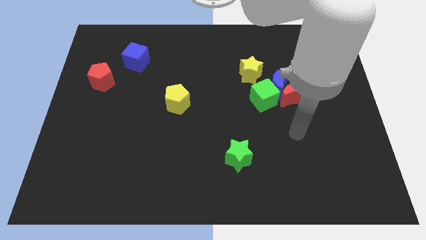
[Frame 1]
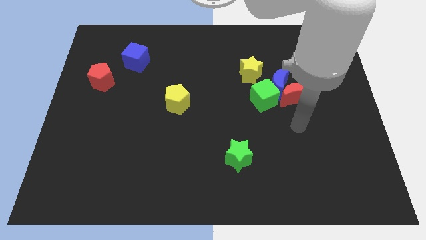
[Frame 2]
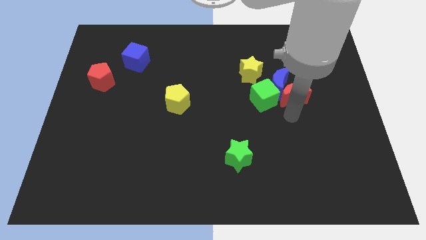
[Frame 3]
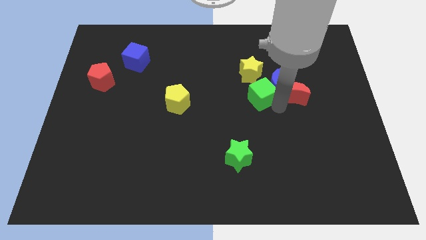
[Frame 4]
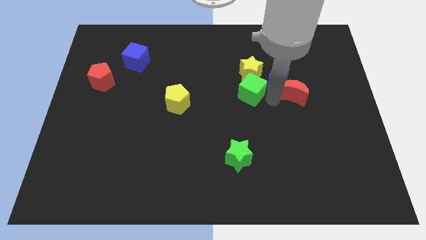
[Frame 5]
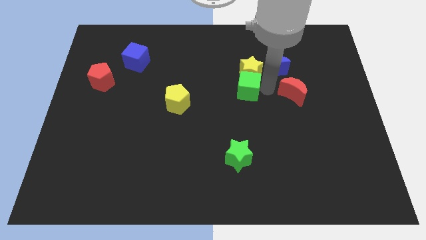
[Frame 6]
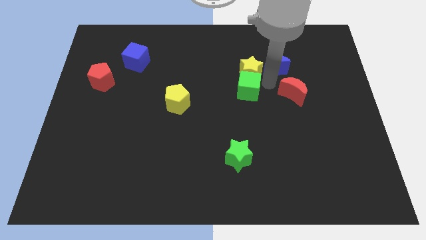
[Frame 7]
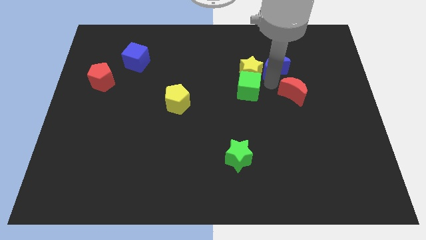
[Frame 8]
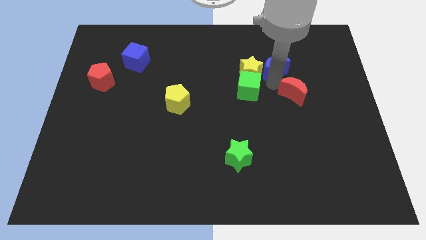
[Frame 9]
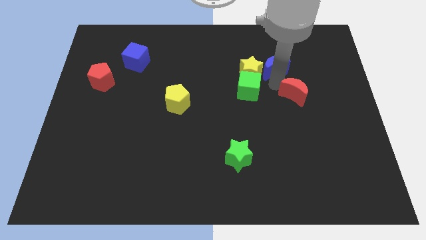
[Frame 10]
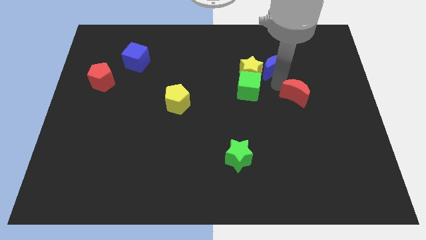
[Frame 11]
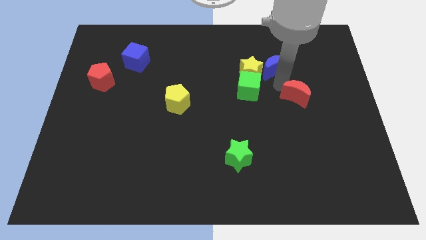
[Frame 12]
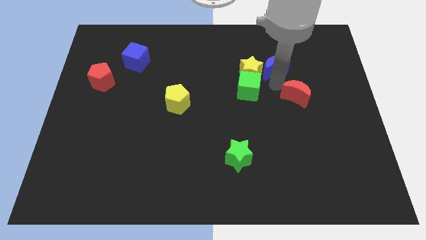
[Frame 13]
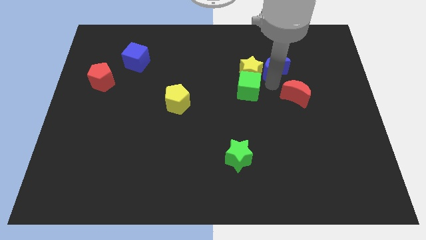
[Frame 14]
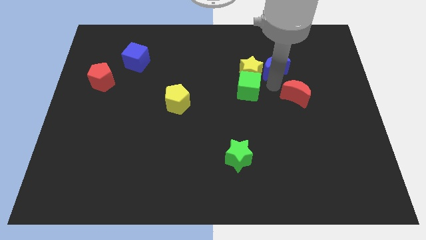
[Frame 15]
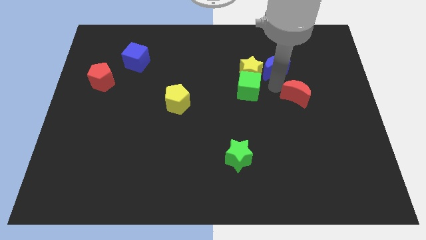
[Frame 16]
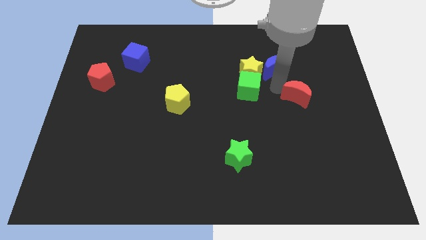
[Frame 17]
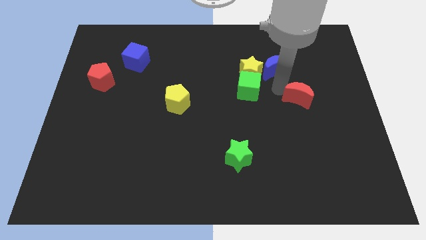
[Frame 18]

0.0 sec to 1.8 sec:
move the red moon away from the blue moon and green cube

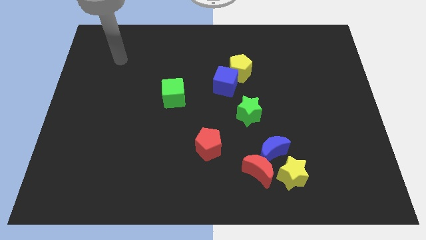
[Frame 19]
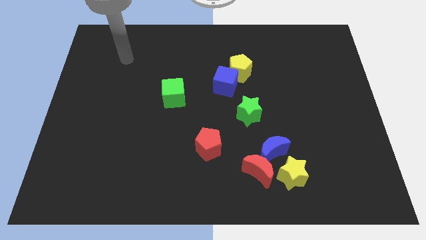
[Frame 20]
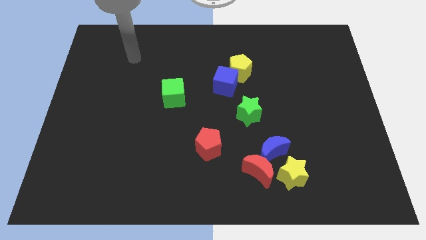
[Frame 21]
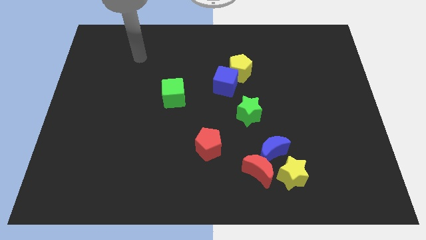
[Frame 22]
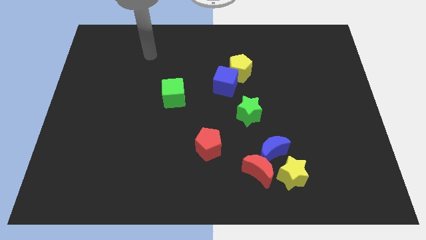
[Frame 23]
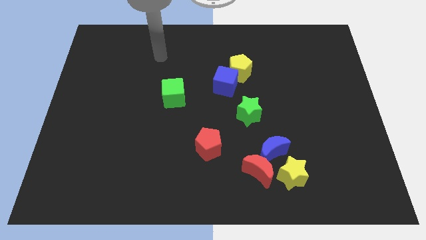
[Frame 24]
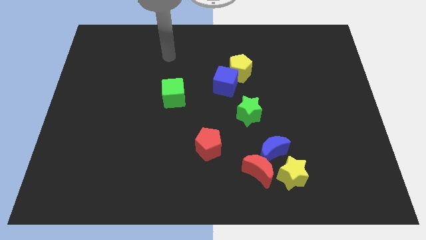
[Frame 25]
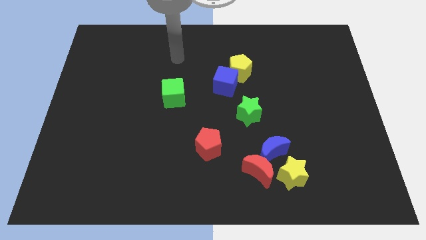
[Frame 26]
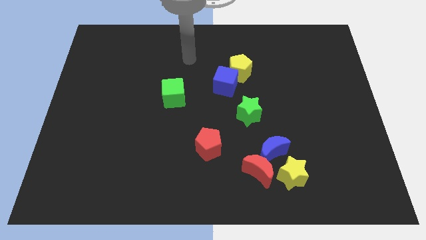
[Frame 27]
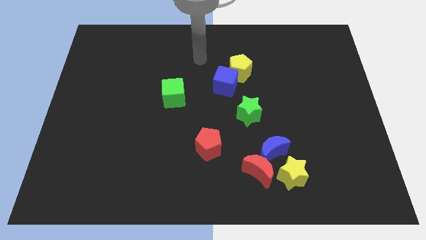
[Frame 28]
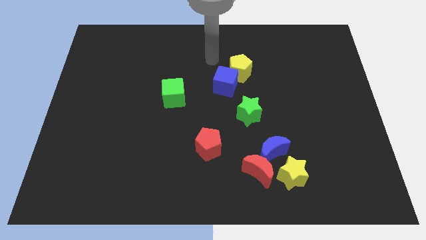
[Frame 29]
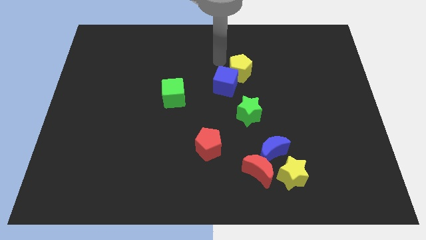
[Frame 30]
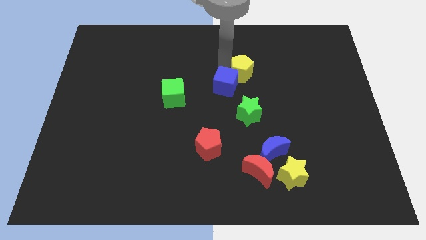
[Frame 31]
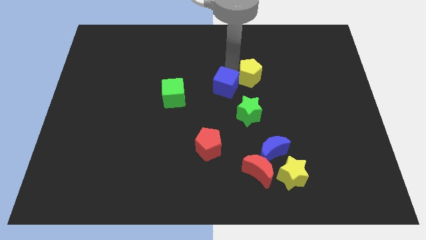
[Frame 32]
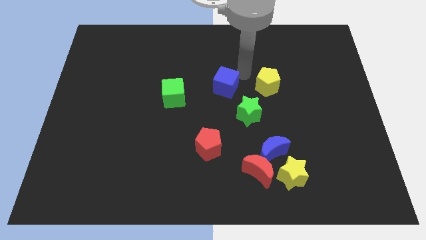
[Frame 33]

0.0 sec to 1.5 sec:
separate the blue cube from the yellow pentagon

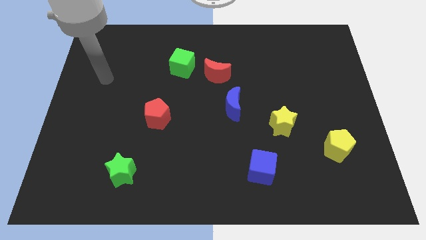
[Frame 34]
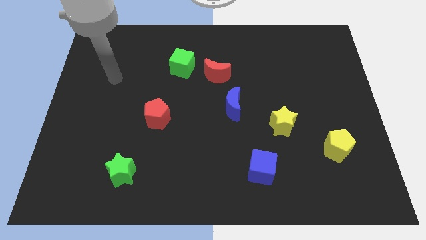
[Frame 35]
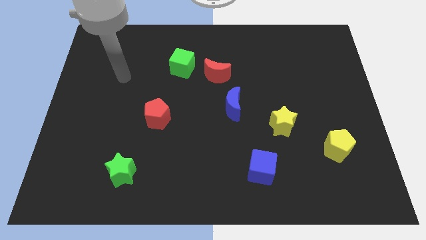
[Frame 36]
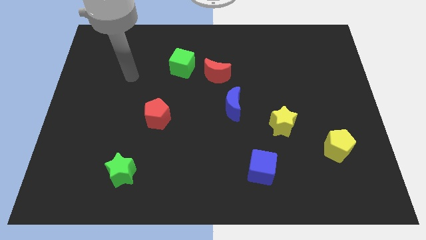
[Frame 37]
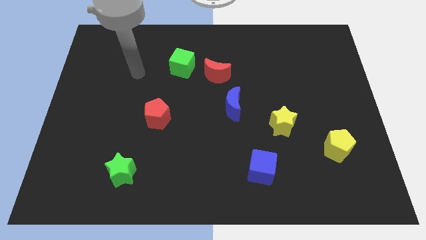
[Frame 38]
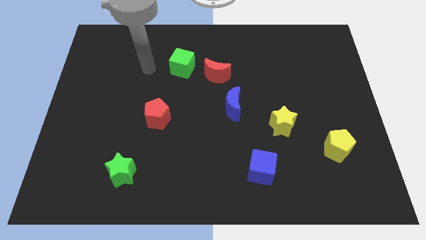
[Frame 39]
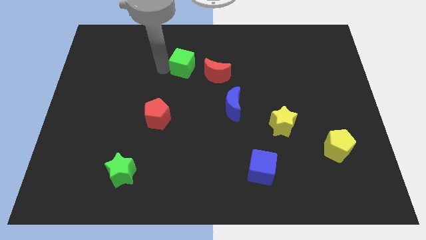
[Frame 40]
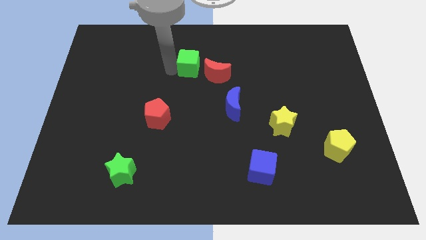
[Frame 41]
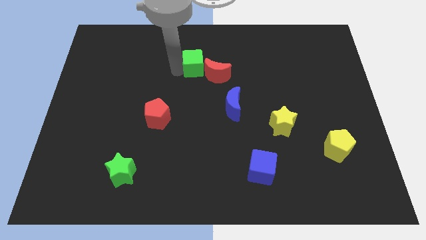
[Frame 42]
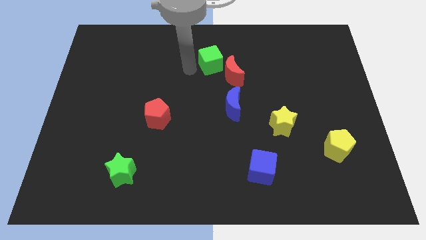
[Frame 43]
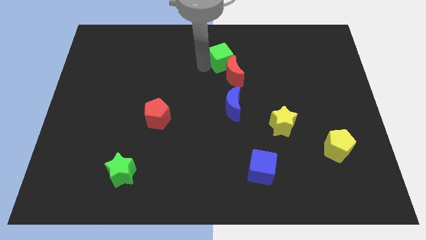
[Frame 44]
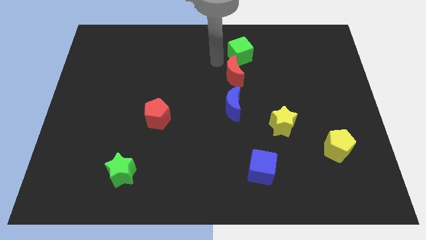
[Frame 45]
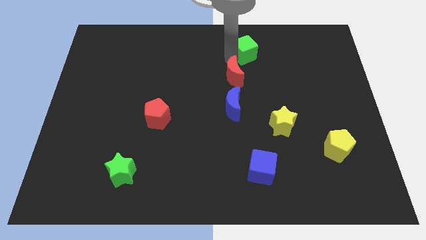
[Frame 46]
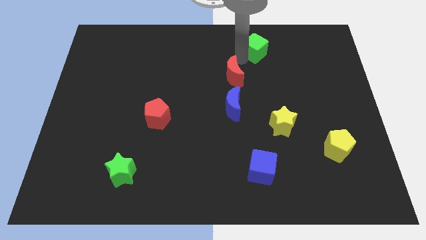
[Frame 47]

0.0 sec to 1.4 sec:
separate the red moon from the green cube

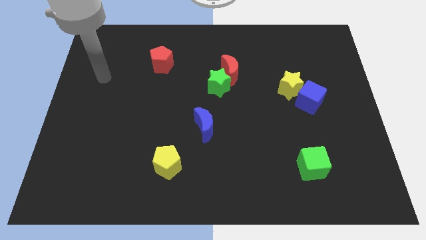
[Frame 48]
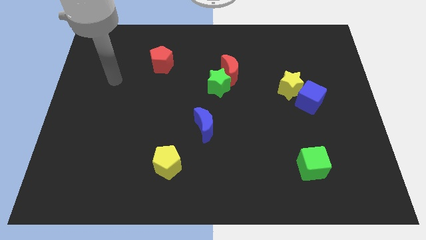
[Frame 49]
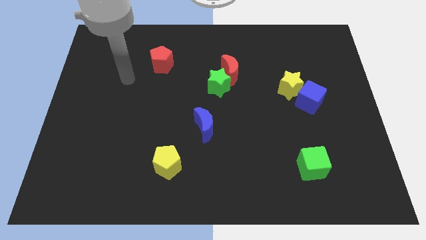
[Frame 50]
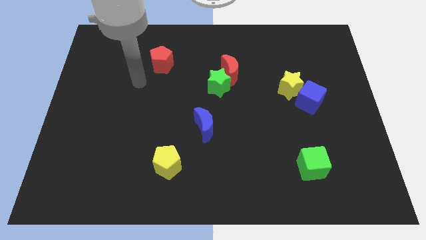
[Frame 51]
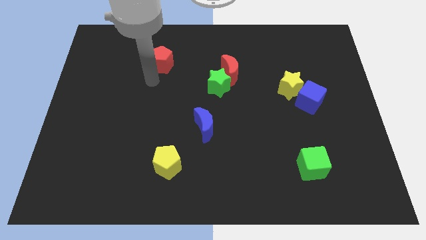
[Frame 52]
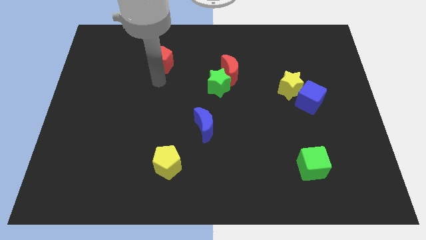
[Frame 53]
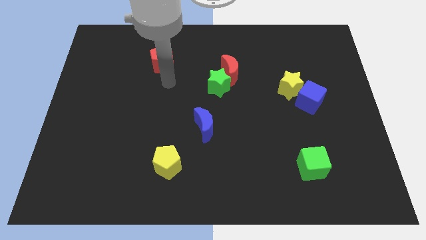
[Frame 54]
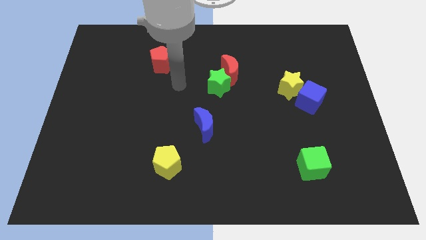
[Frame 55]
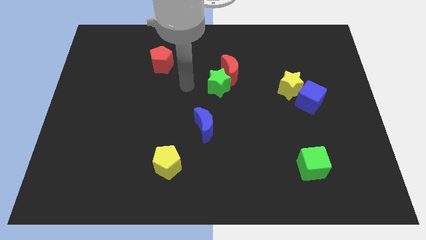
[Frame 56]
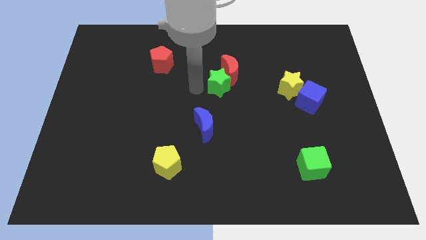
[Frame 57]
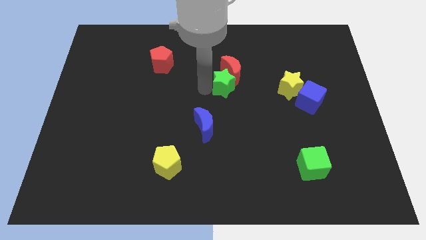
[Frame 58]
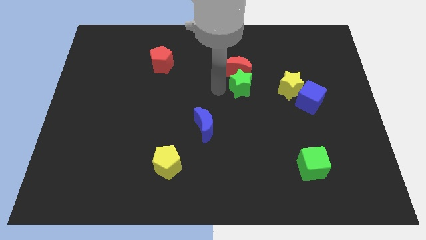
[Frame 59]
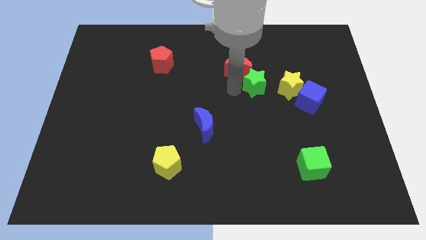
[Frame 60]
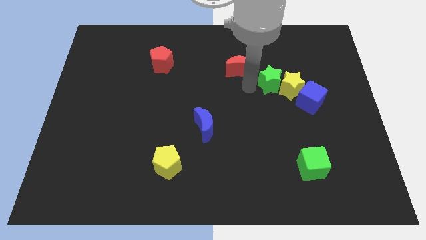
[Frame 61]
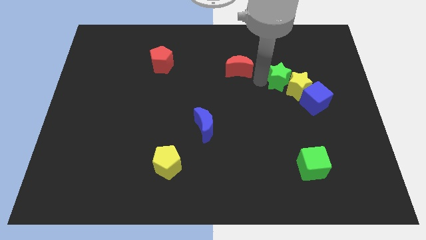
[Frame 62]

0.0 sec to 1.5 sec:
separate the red moon from the green star

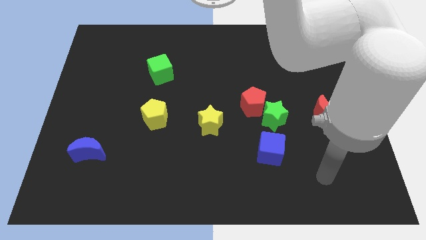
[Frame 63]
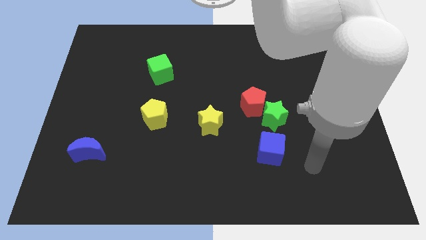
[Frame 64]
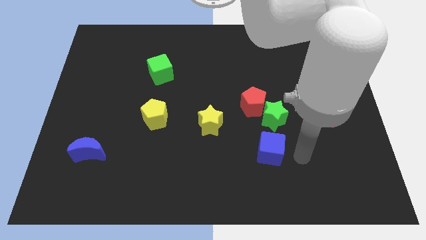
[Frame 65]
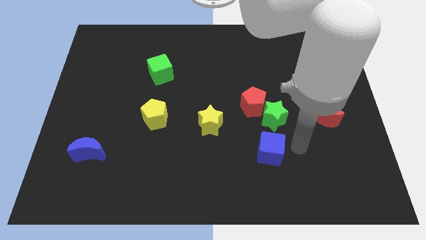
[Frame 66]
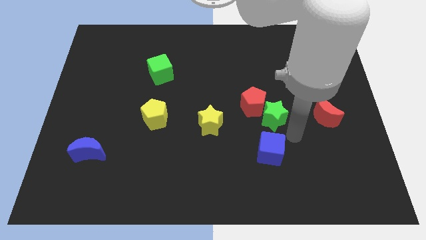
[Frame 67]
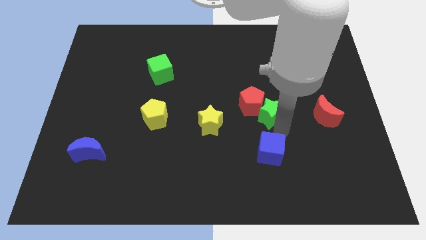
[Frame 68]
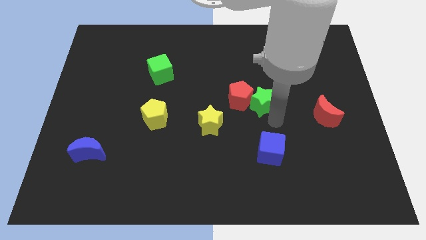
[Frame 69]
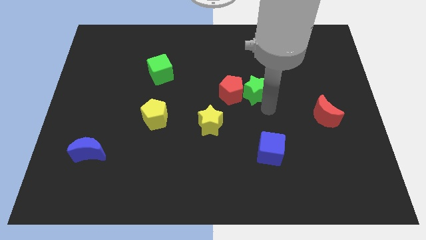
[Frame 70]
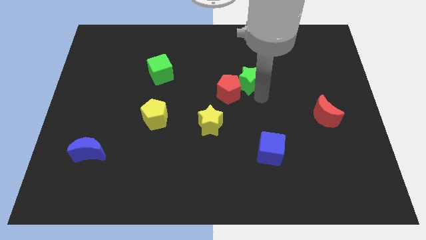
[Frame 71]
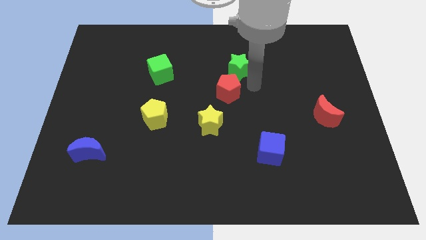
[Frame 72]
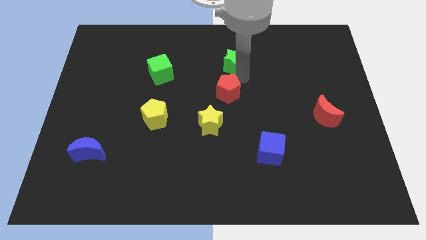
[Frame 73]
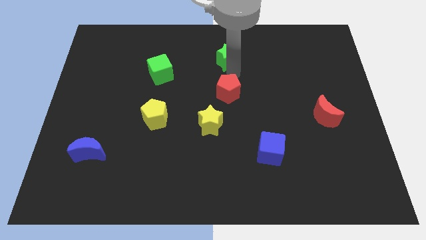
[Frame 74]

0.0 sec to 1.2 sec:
pull the red pentagon apart from the green star

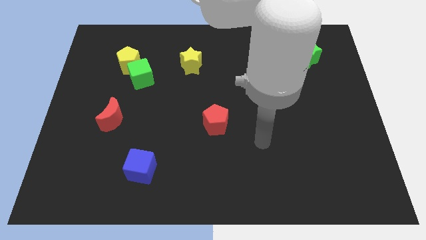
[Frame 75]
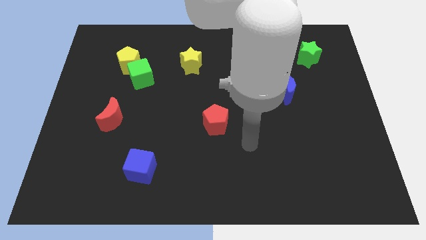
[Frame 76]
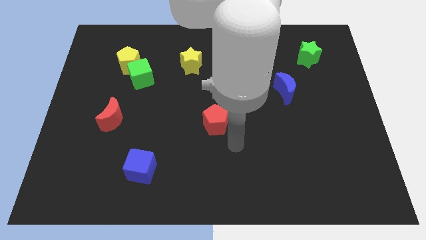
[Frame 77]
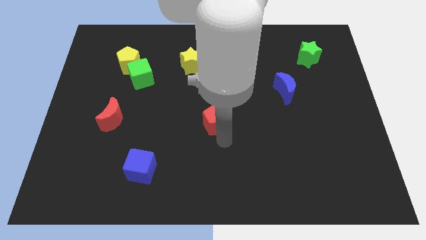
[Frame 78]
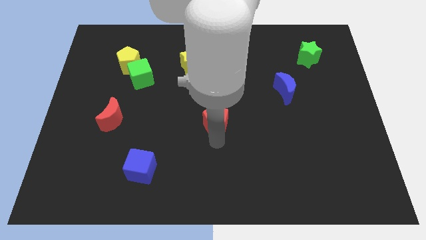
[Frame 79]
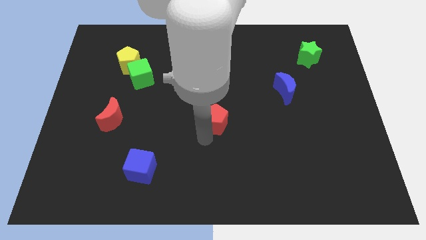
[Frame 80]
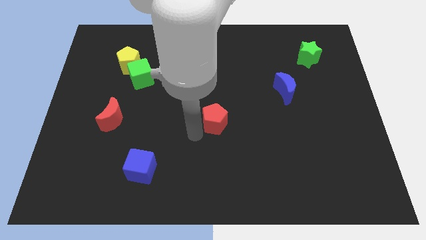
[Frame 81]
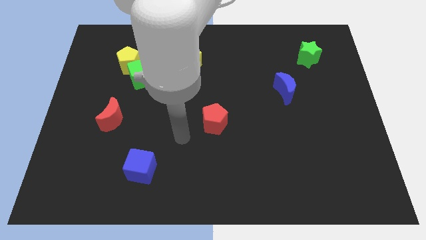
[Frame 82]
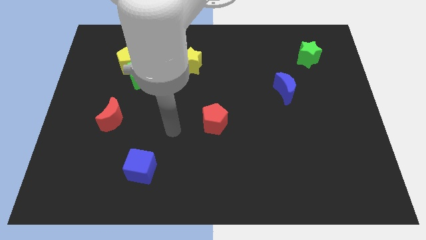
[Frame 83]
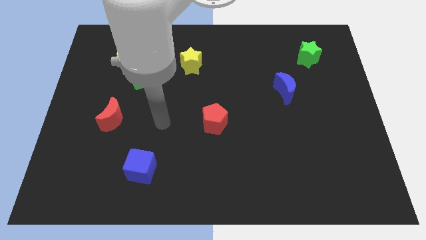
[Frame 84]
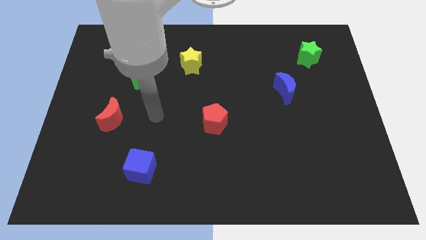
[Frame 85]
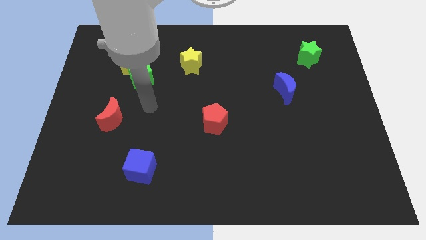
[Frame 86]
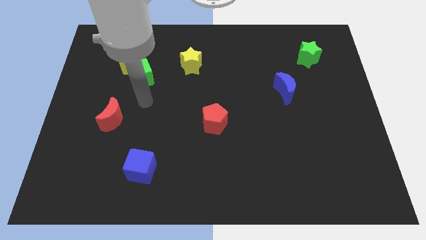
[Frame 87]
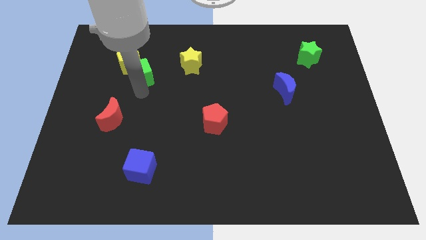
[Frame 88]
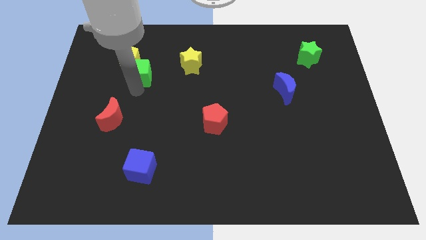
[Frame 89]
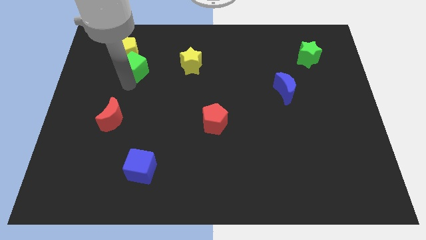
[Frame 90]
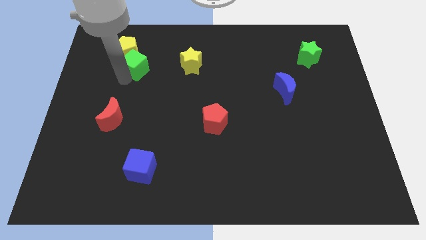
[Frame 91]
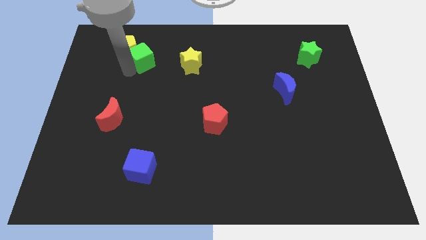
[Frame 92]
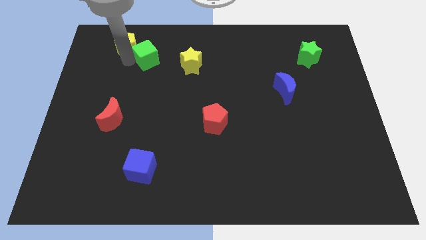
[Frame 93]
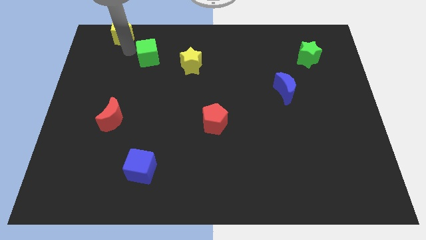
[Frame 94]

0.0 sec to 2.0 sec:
move the green cube away from the yellow pentagon
